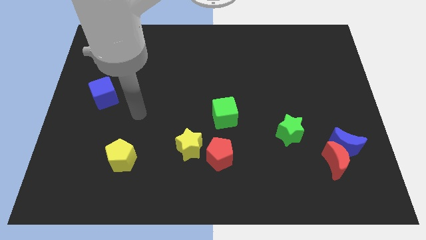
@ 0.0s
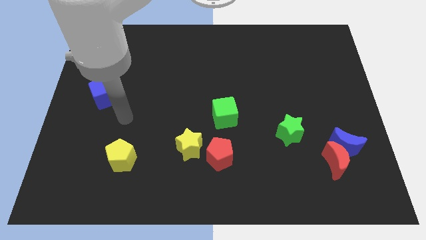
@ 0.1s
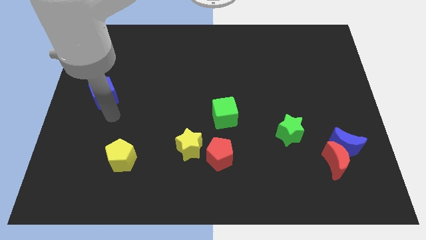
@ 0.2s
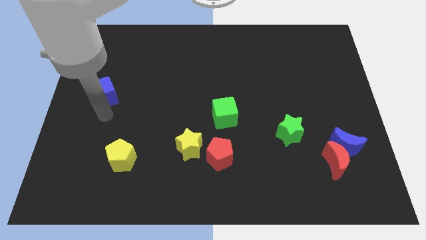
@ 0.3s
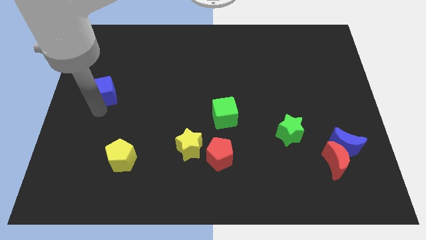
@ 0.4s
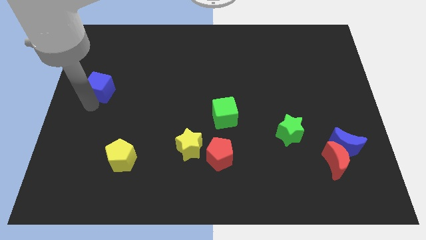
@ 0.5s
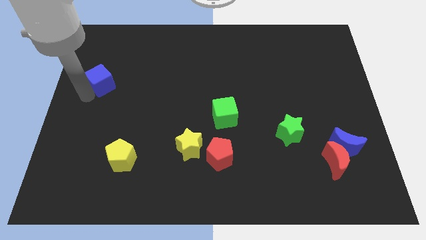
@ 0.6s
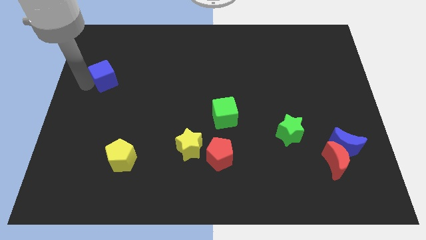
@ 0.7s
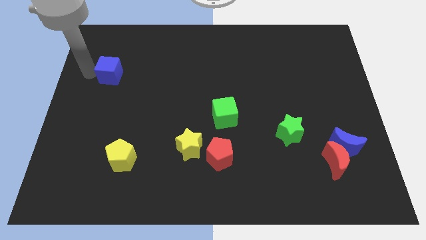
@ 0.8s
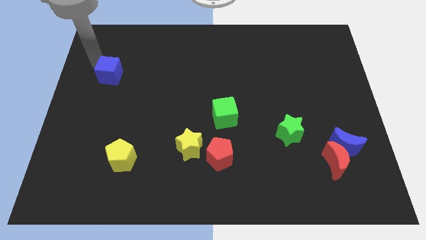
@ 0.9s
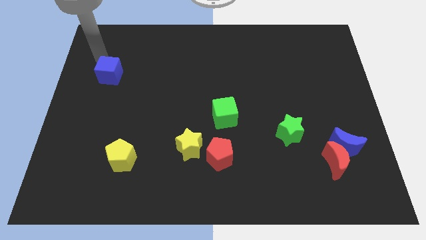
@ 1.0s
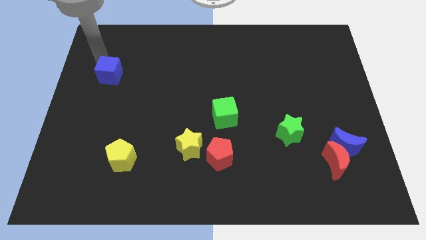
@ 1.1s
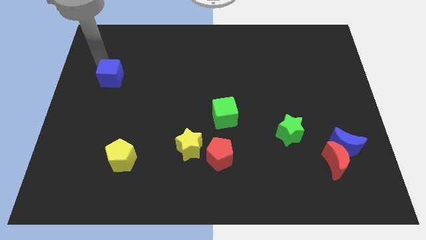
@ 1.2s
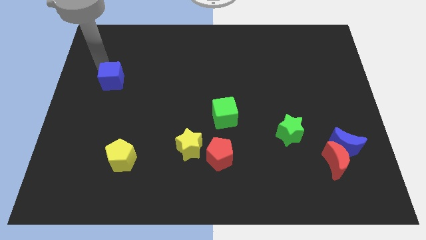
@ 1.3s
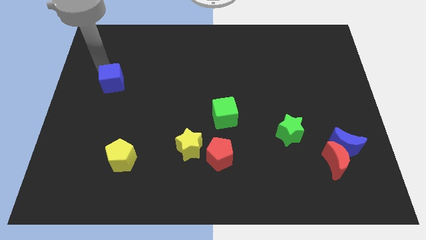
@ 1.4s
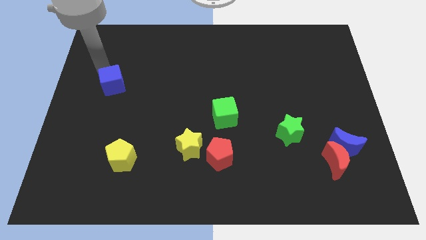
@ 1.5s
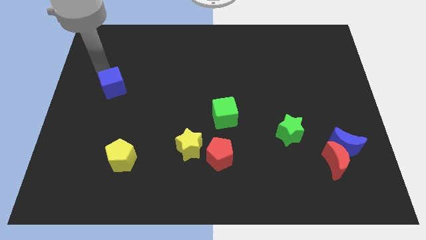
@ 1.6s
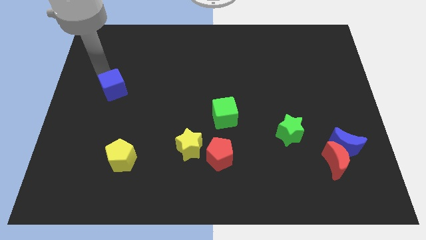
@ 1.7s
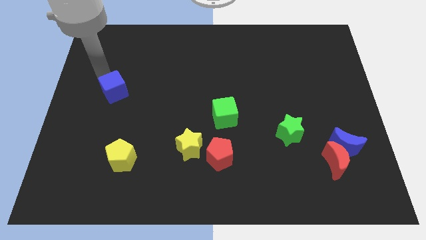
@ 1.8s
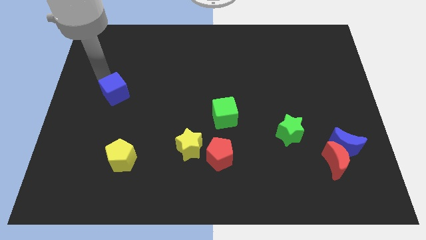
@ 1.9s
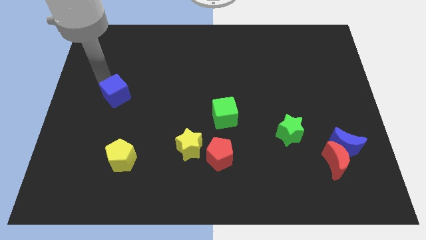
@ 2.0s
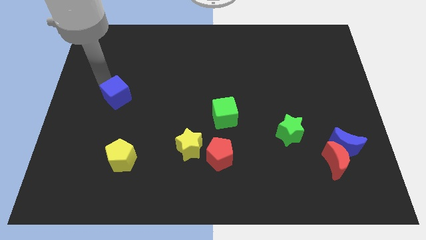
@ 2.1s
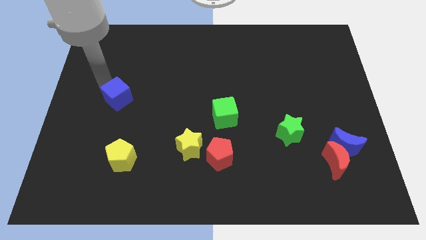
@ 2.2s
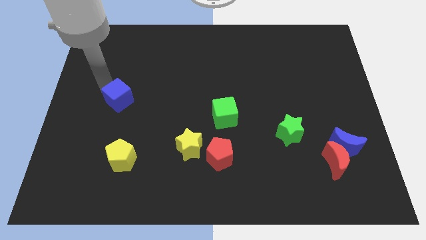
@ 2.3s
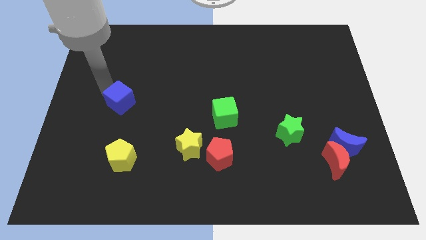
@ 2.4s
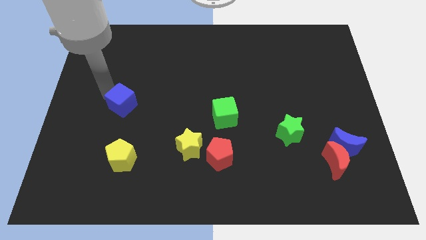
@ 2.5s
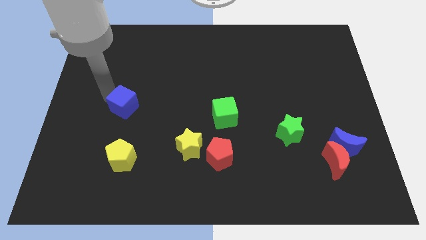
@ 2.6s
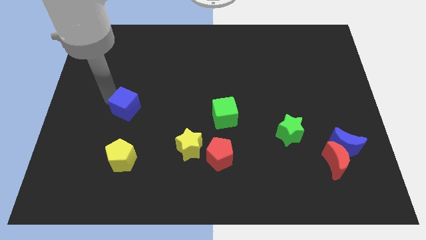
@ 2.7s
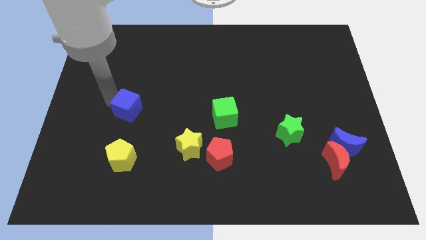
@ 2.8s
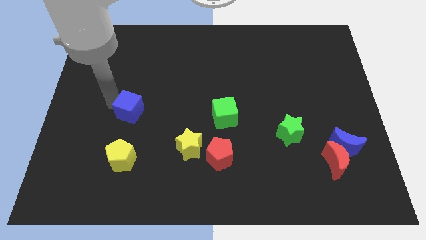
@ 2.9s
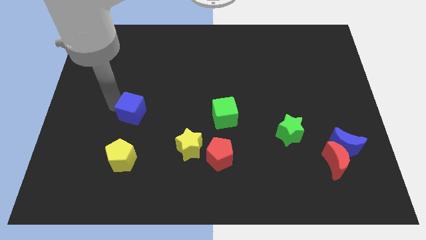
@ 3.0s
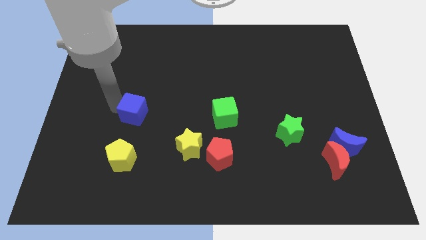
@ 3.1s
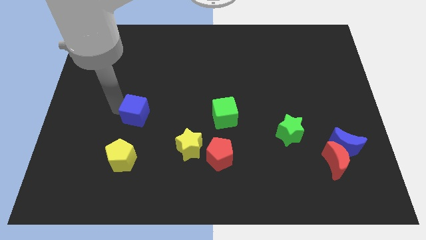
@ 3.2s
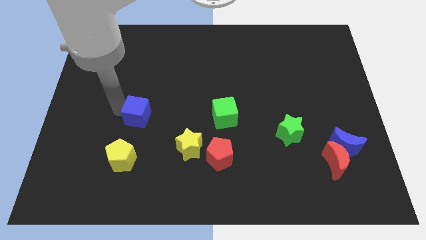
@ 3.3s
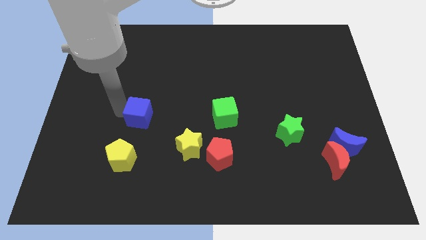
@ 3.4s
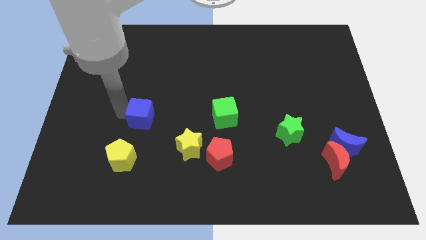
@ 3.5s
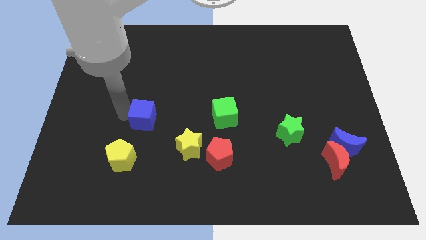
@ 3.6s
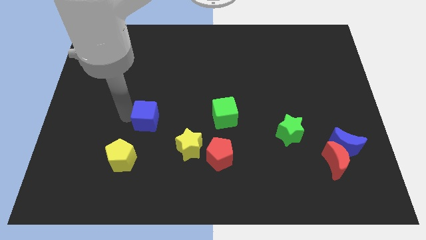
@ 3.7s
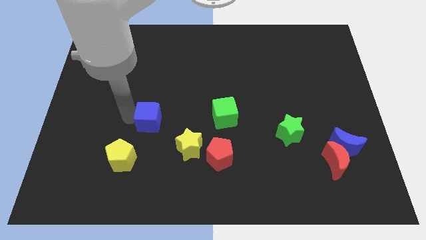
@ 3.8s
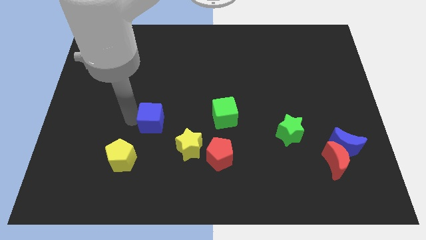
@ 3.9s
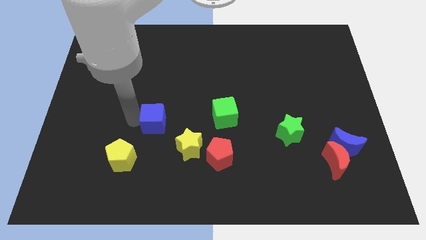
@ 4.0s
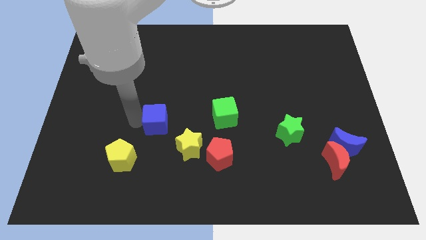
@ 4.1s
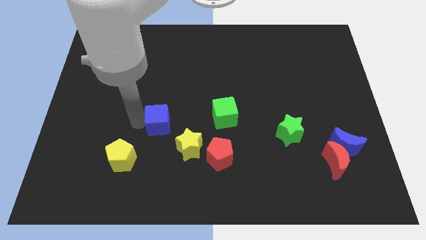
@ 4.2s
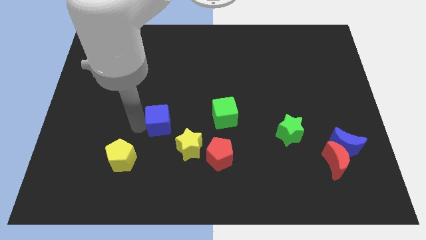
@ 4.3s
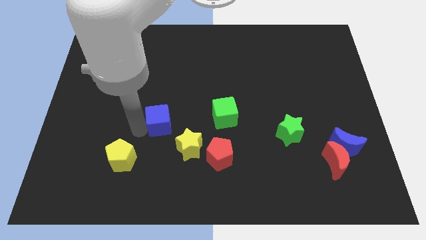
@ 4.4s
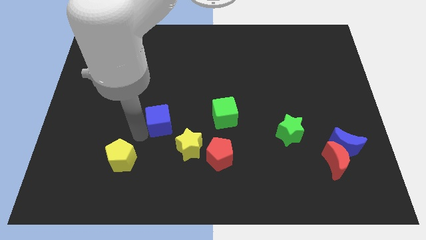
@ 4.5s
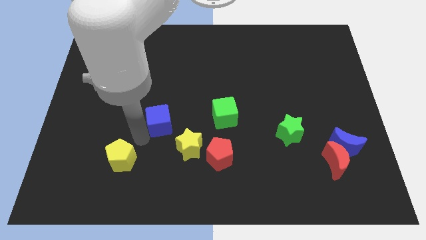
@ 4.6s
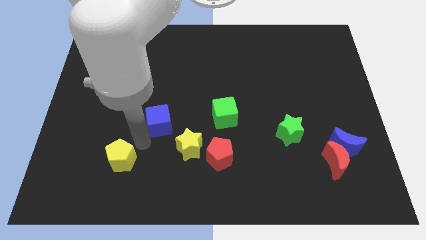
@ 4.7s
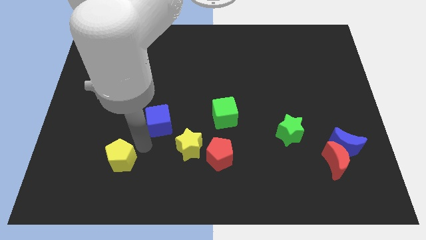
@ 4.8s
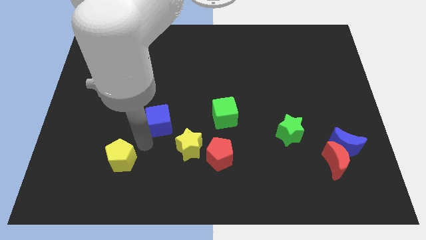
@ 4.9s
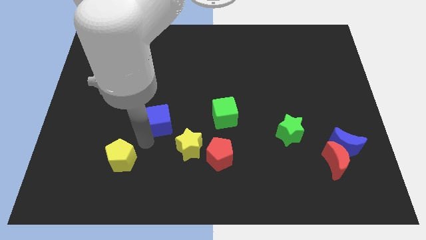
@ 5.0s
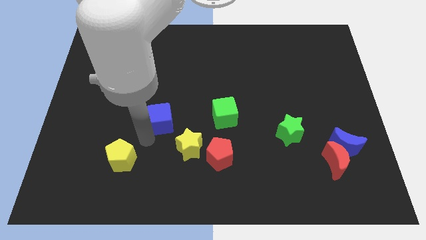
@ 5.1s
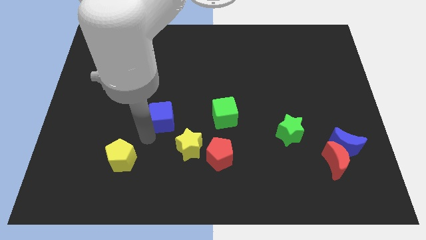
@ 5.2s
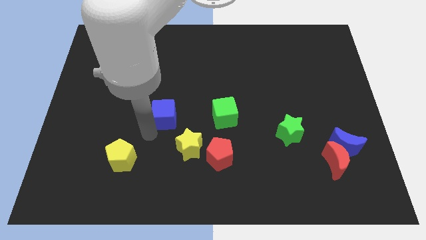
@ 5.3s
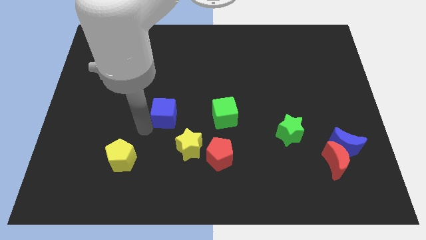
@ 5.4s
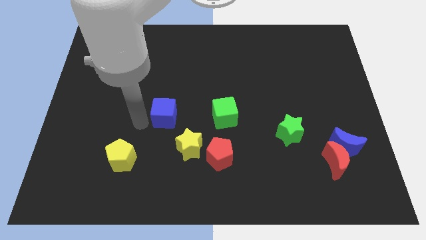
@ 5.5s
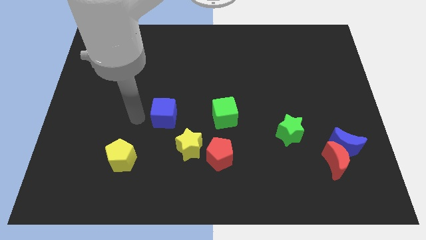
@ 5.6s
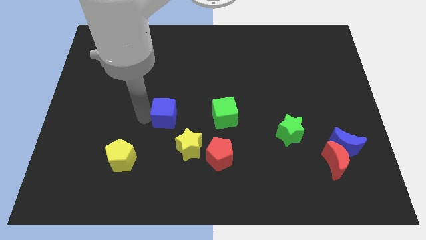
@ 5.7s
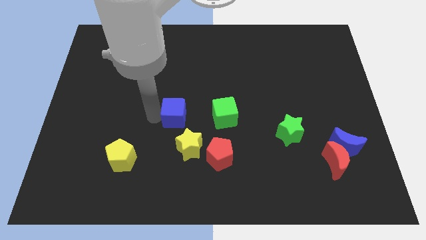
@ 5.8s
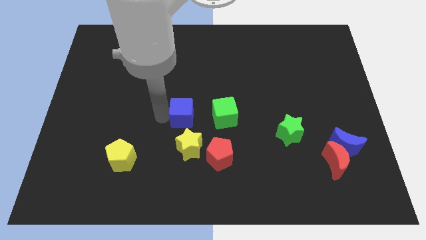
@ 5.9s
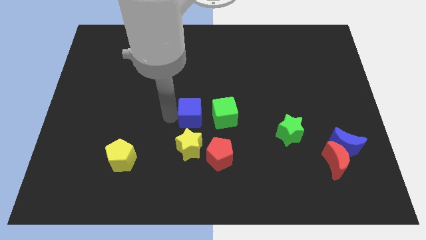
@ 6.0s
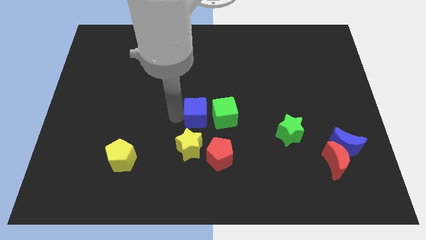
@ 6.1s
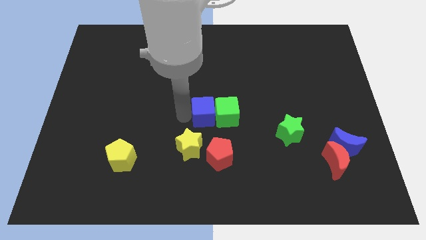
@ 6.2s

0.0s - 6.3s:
put the blue cube close to the green cube
